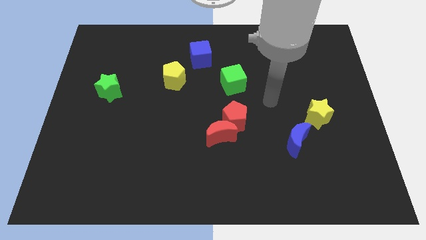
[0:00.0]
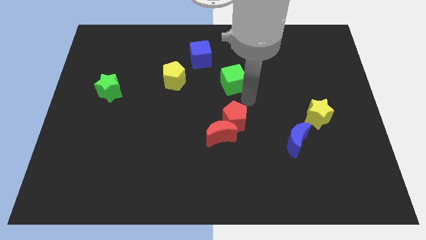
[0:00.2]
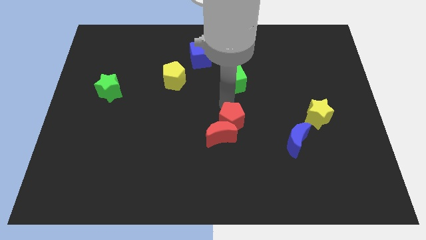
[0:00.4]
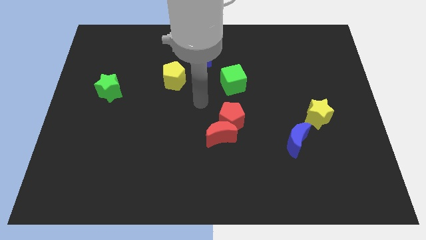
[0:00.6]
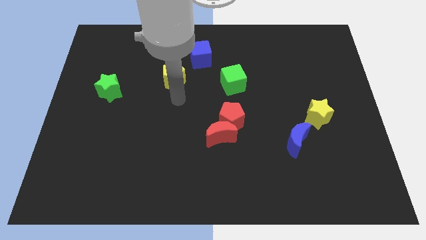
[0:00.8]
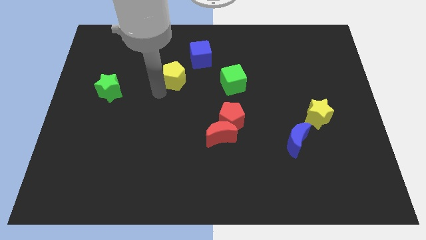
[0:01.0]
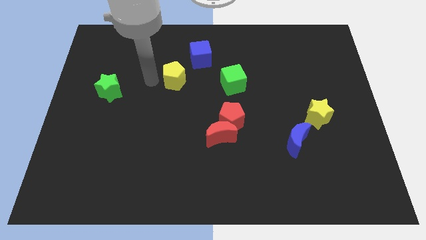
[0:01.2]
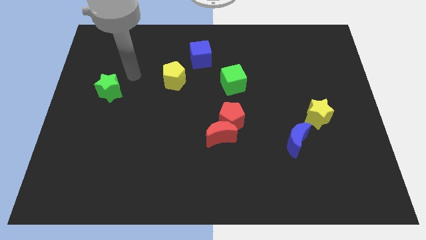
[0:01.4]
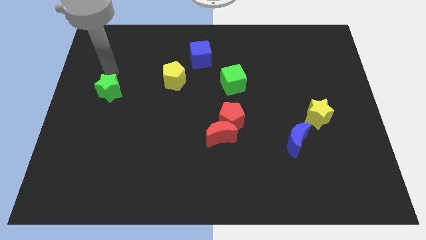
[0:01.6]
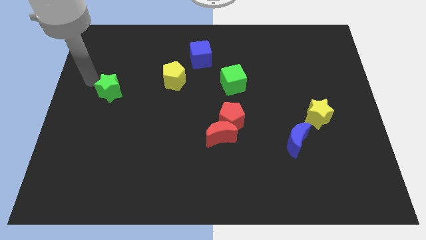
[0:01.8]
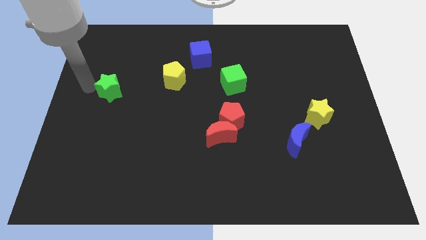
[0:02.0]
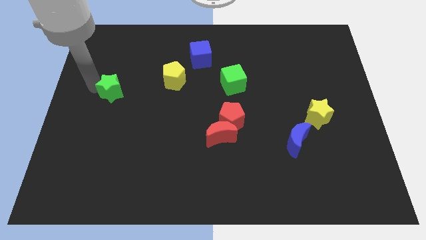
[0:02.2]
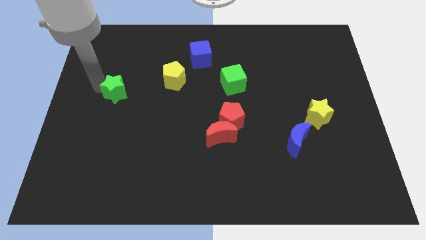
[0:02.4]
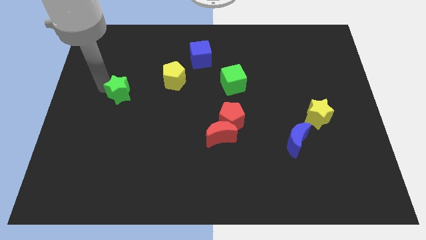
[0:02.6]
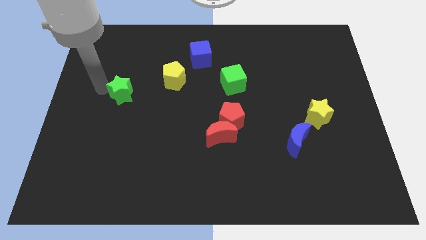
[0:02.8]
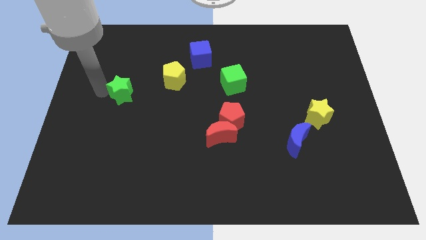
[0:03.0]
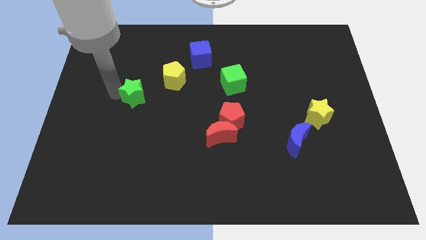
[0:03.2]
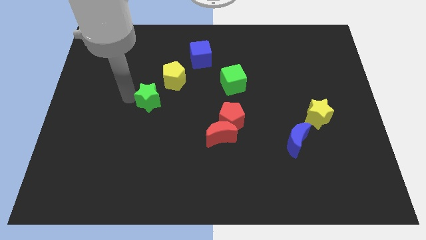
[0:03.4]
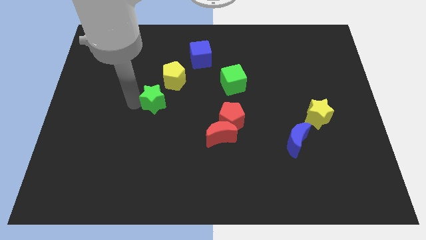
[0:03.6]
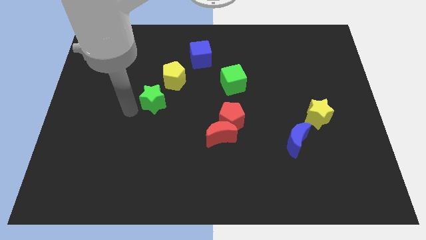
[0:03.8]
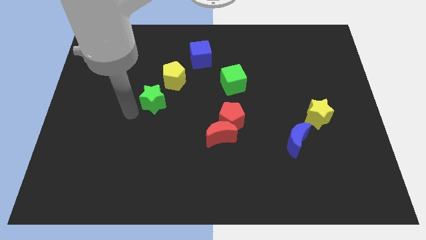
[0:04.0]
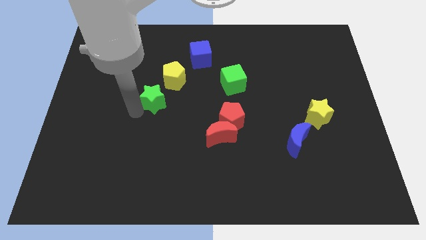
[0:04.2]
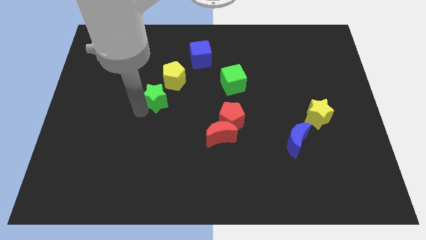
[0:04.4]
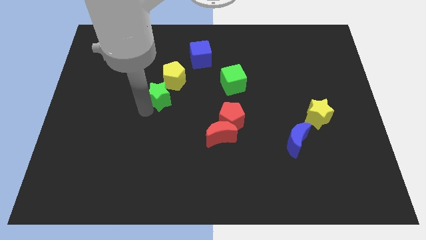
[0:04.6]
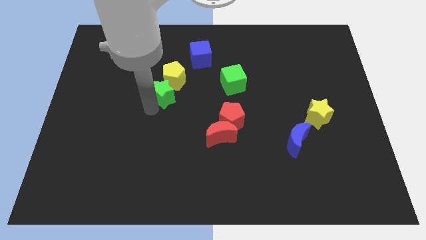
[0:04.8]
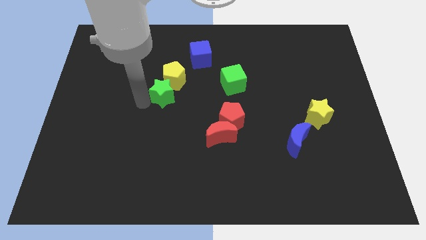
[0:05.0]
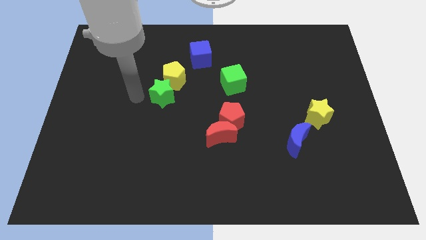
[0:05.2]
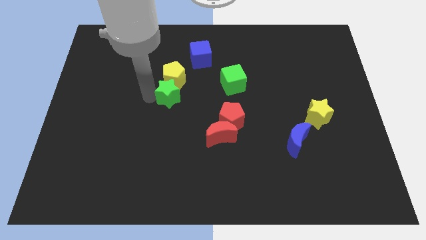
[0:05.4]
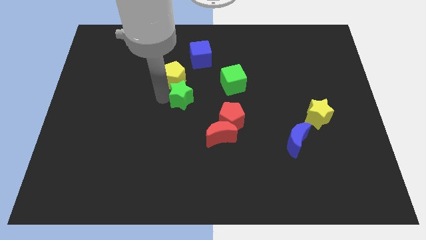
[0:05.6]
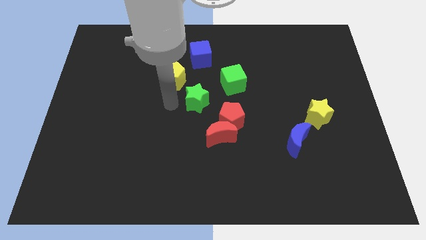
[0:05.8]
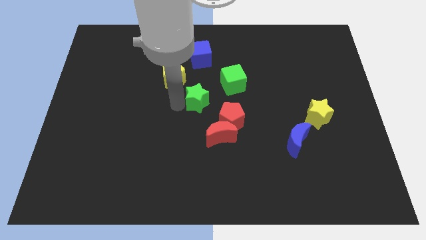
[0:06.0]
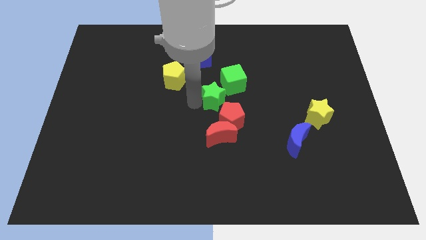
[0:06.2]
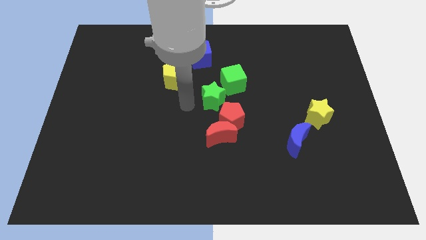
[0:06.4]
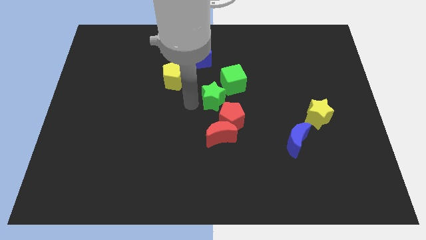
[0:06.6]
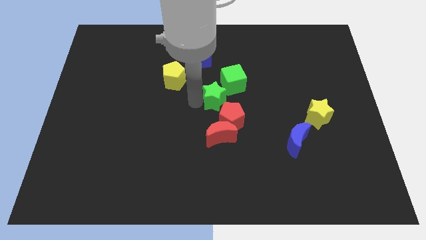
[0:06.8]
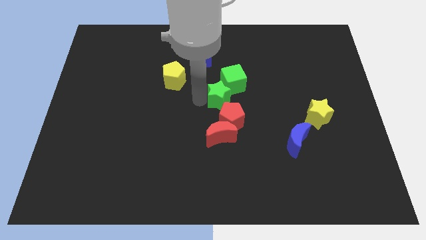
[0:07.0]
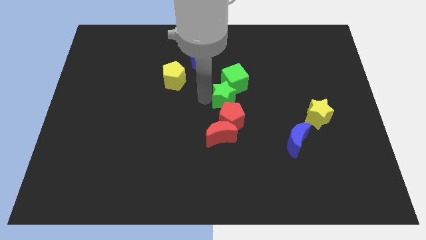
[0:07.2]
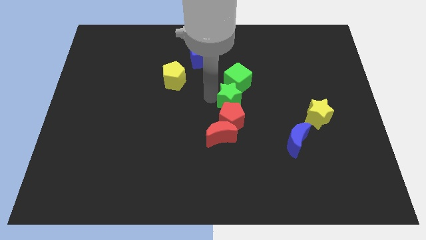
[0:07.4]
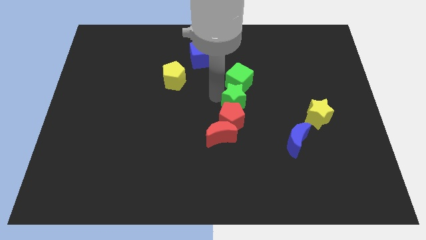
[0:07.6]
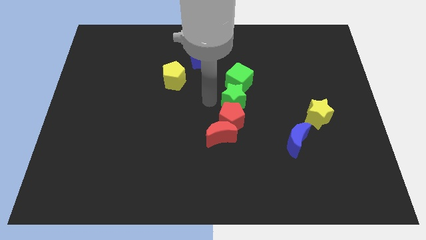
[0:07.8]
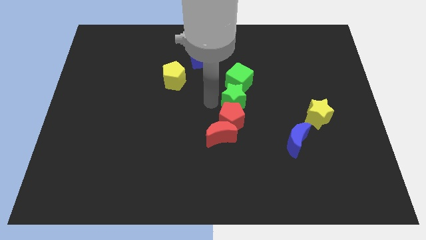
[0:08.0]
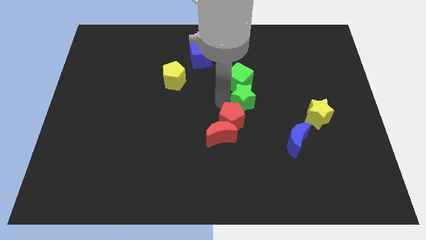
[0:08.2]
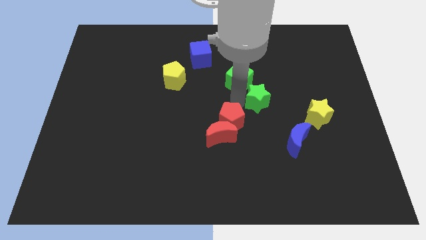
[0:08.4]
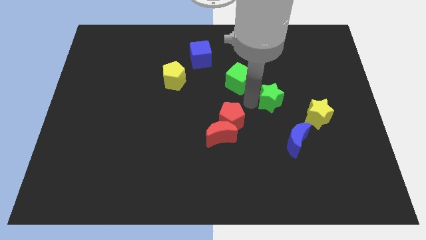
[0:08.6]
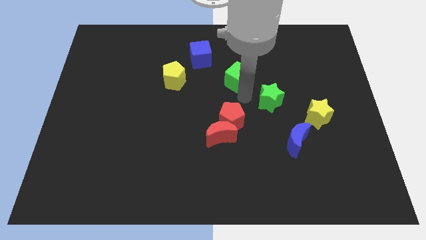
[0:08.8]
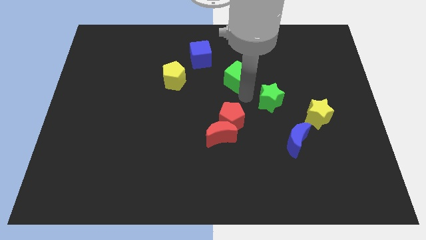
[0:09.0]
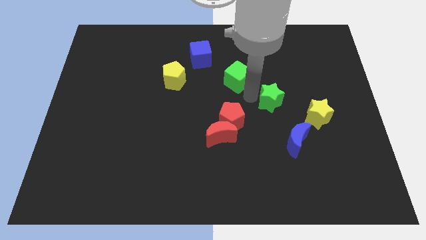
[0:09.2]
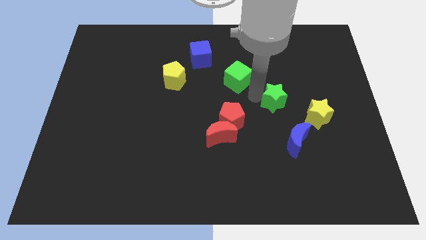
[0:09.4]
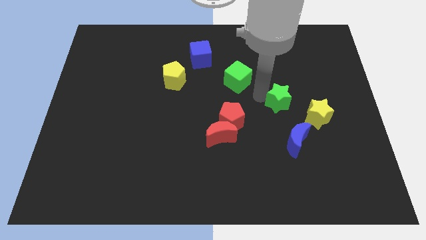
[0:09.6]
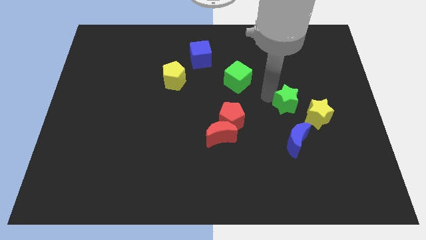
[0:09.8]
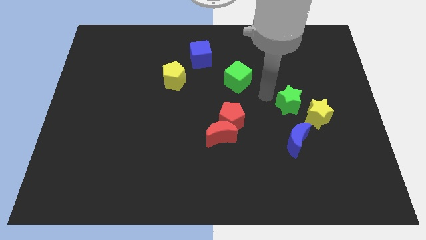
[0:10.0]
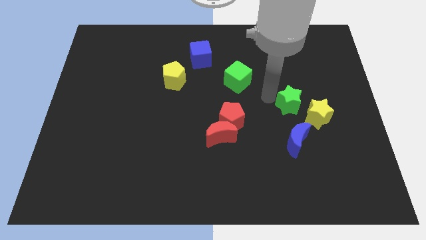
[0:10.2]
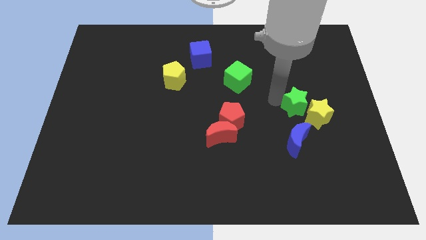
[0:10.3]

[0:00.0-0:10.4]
put the green star close to the yellow star

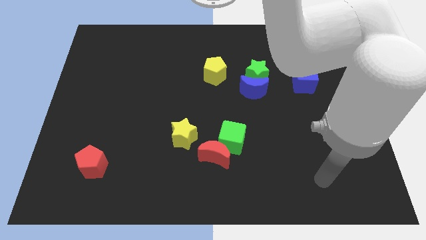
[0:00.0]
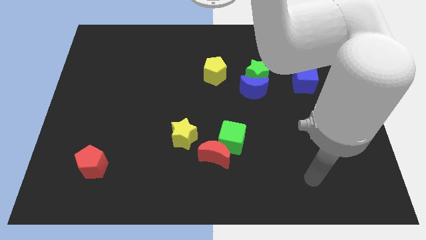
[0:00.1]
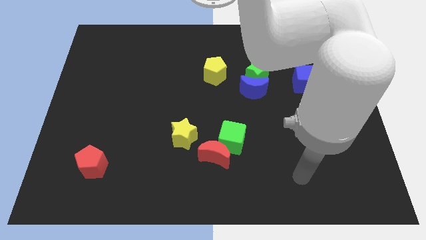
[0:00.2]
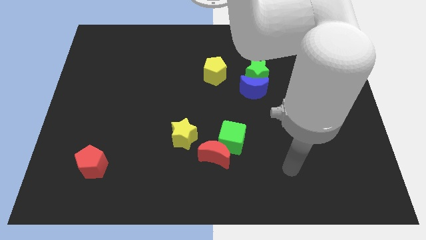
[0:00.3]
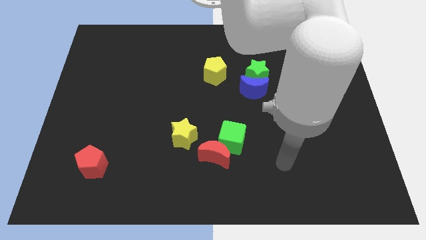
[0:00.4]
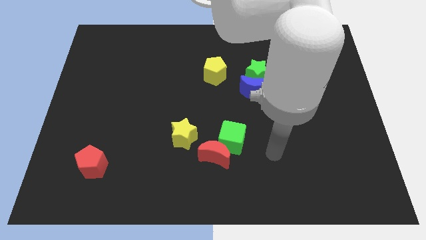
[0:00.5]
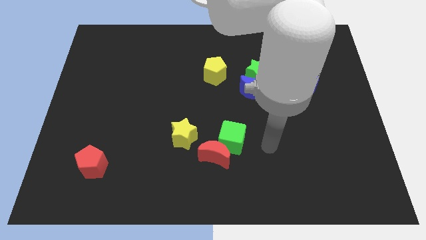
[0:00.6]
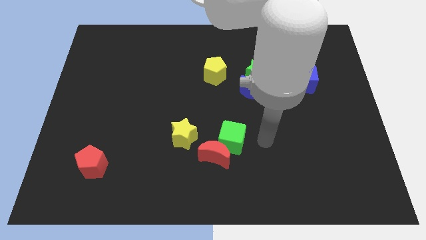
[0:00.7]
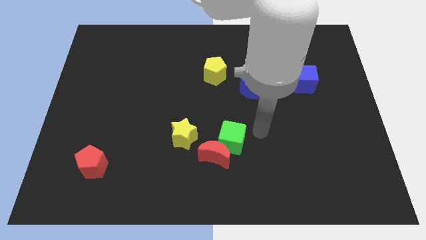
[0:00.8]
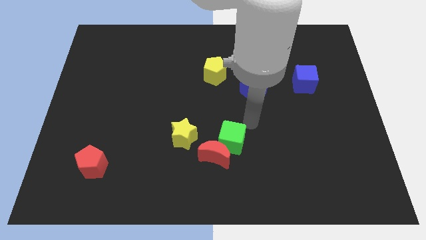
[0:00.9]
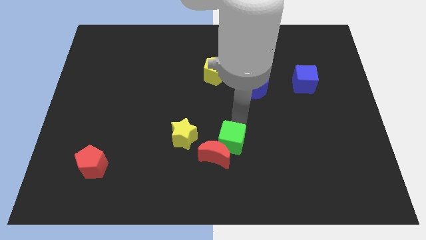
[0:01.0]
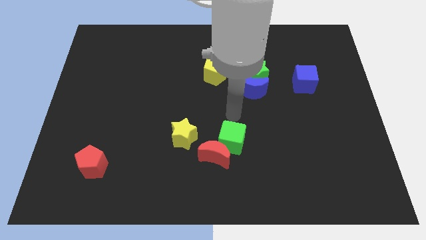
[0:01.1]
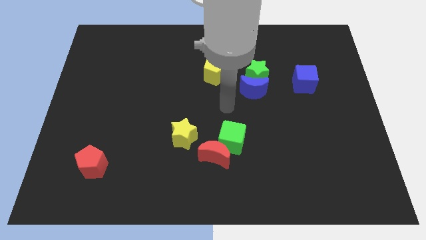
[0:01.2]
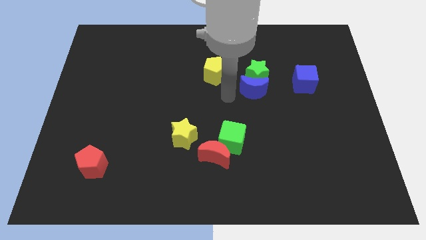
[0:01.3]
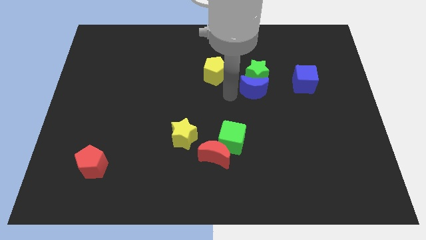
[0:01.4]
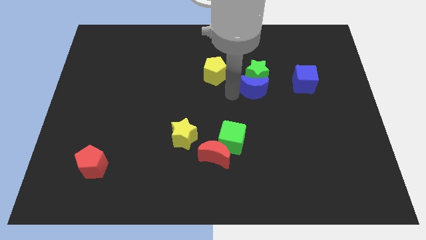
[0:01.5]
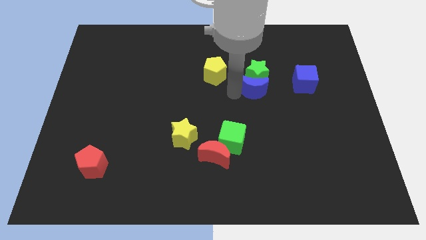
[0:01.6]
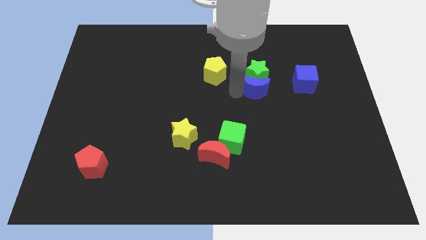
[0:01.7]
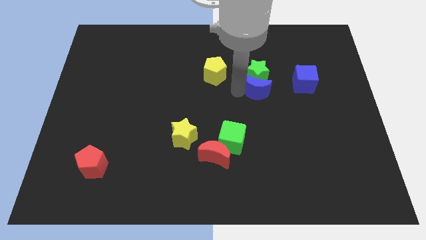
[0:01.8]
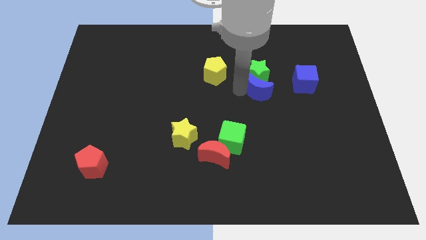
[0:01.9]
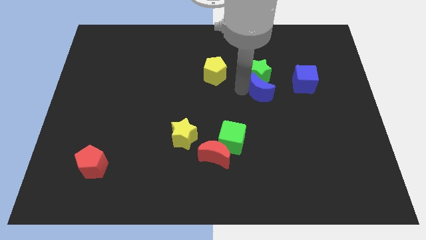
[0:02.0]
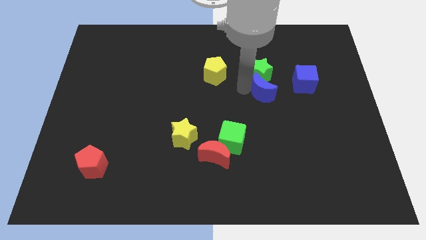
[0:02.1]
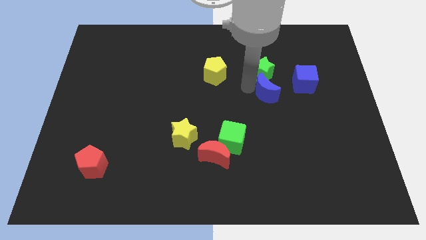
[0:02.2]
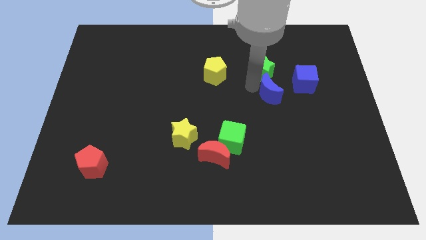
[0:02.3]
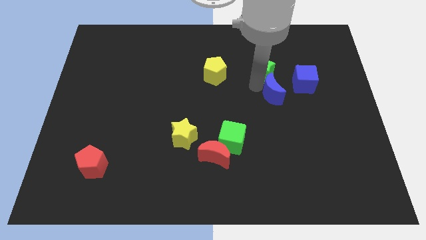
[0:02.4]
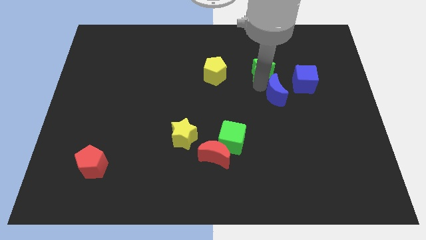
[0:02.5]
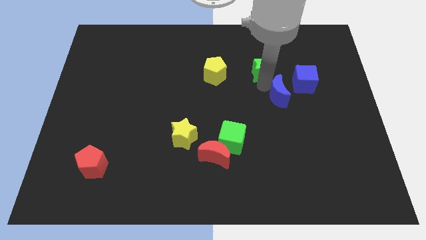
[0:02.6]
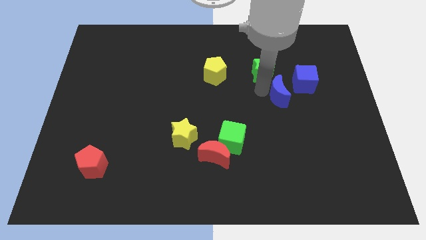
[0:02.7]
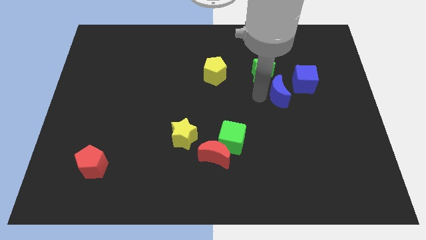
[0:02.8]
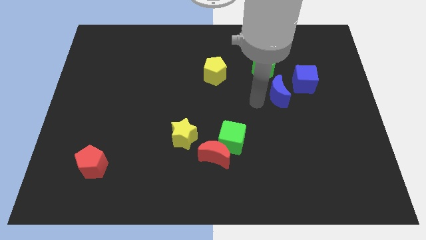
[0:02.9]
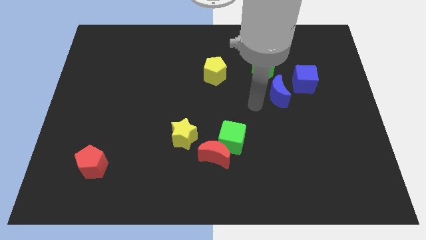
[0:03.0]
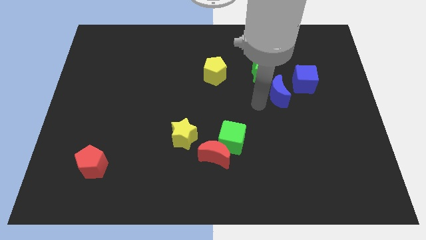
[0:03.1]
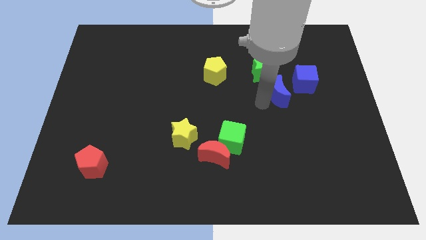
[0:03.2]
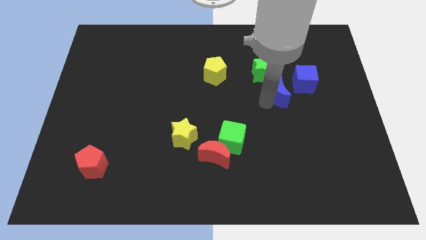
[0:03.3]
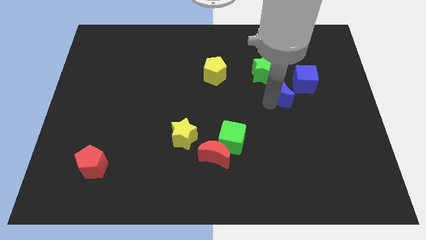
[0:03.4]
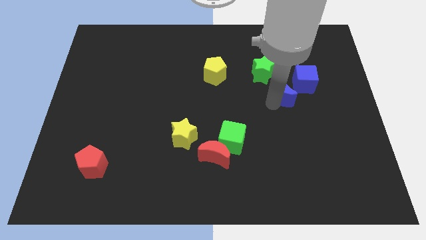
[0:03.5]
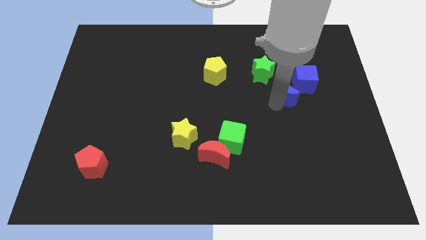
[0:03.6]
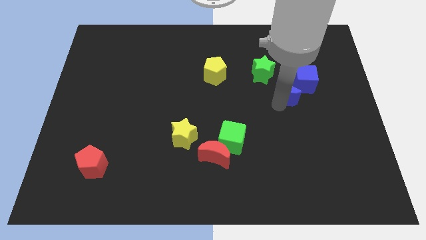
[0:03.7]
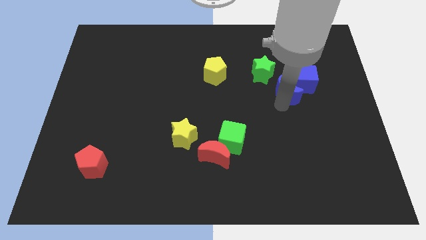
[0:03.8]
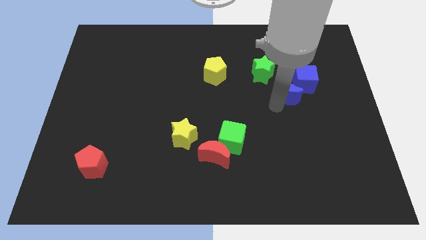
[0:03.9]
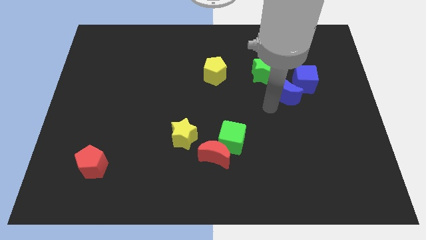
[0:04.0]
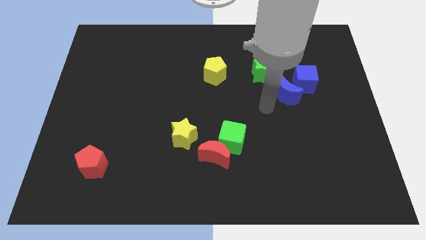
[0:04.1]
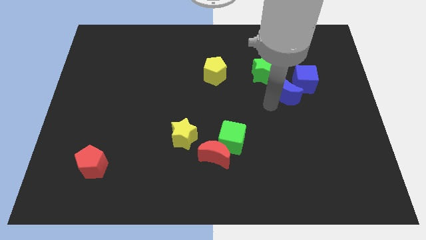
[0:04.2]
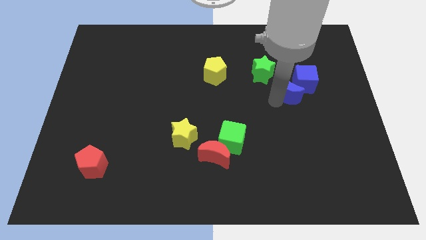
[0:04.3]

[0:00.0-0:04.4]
move the blue moon next to the blue cube
